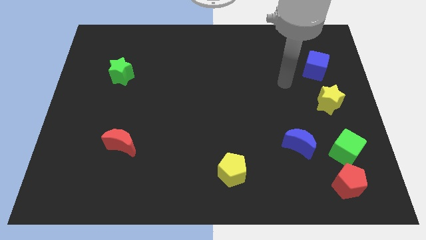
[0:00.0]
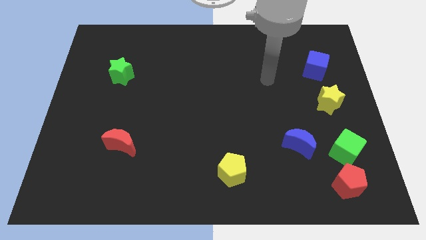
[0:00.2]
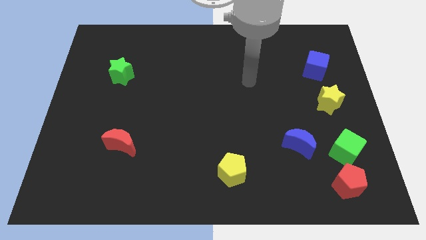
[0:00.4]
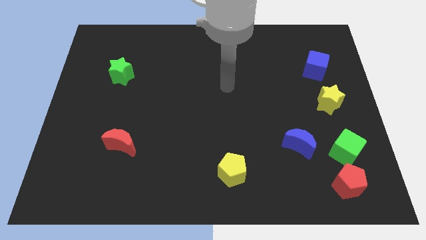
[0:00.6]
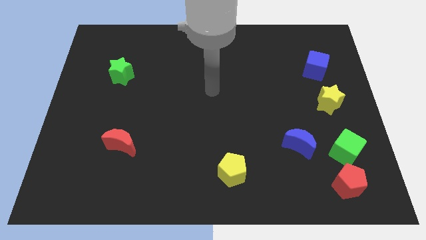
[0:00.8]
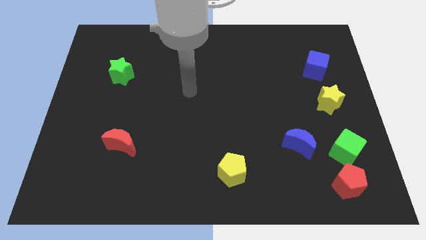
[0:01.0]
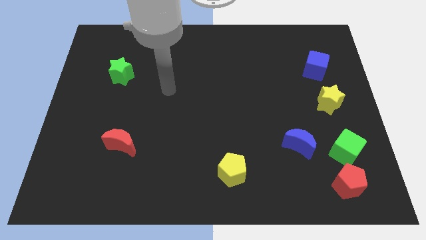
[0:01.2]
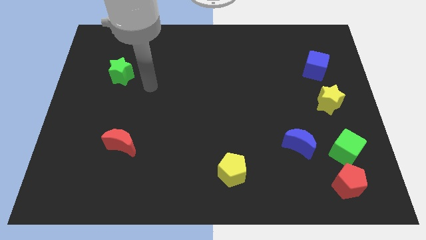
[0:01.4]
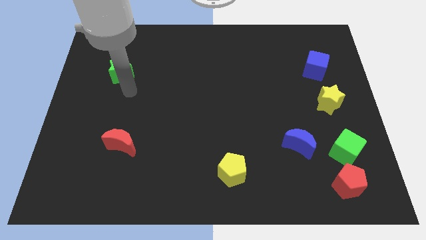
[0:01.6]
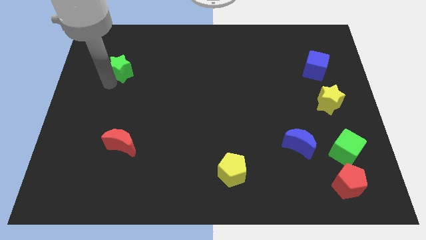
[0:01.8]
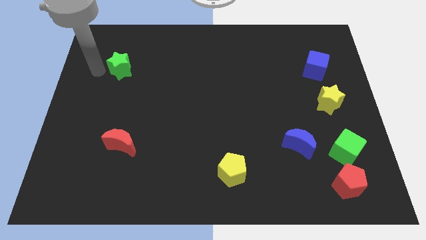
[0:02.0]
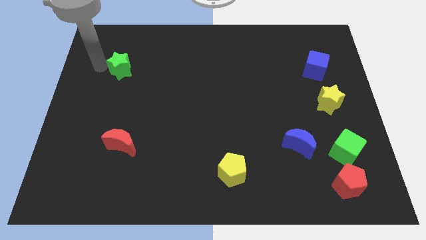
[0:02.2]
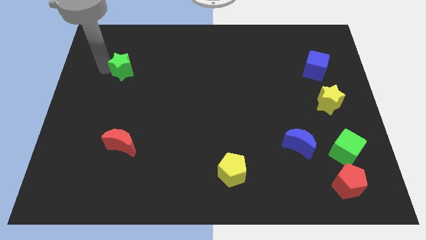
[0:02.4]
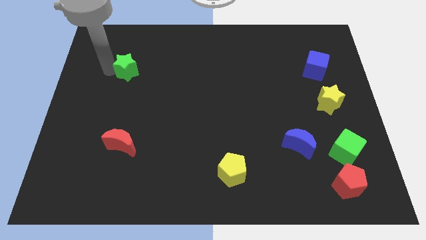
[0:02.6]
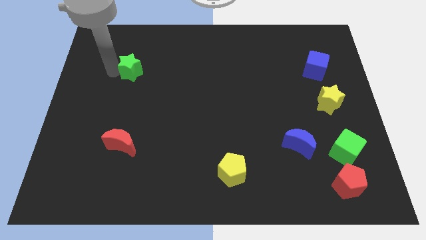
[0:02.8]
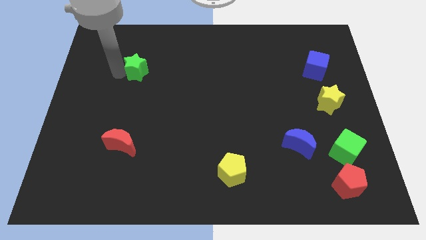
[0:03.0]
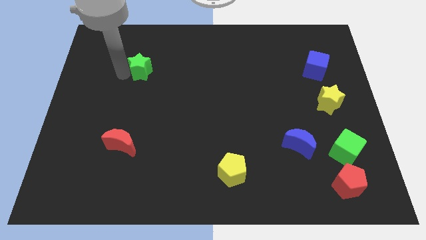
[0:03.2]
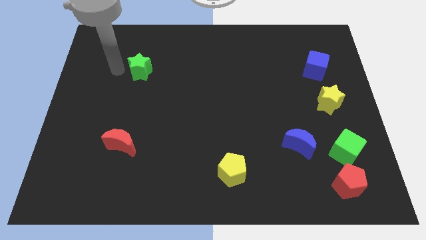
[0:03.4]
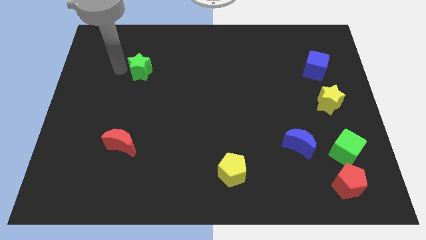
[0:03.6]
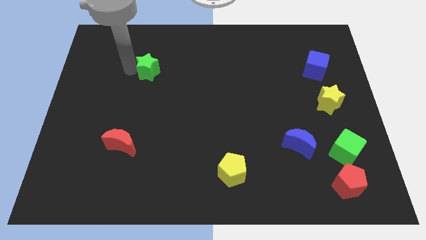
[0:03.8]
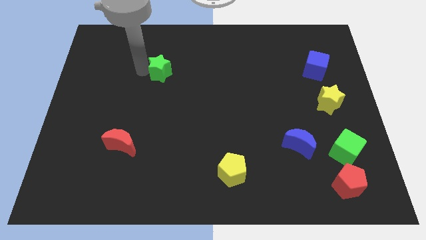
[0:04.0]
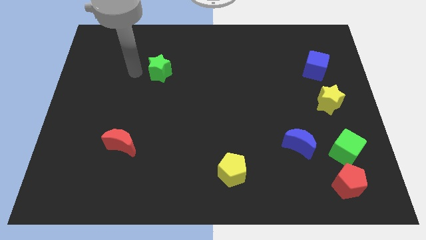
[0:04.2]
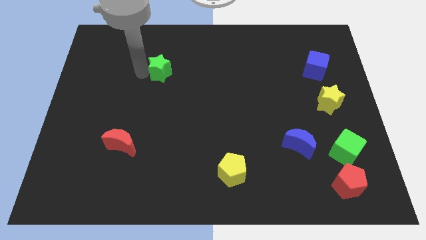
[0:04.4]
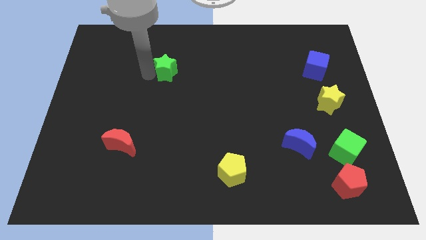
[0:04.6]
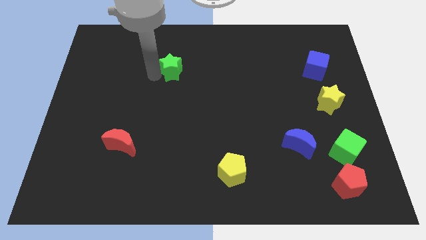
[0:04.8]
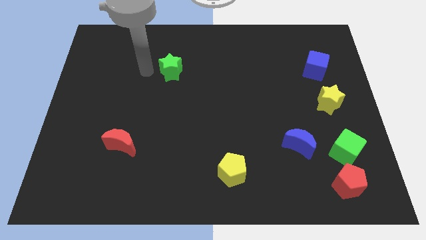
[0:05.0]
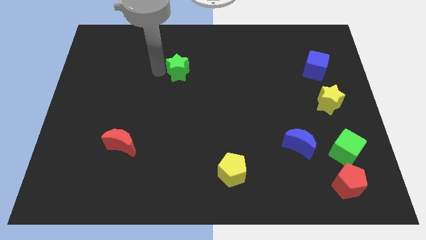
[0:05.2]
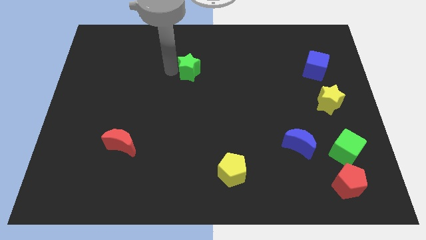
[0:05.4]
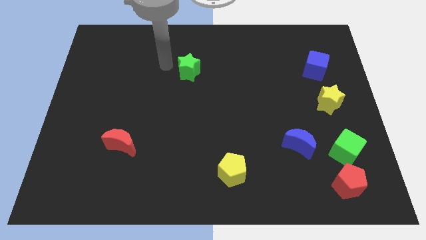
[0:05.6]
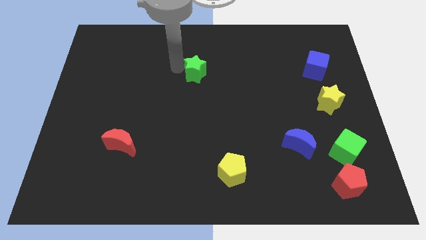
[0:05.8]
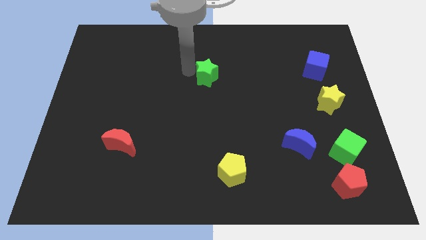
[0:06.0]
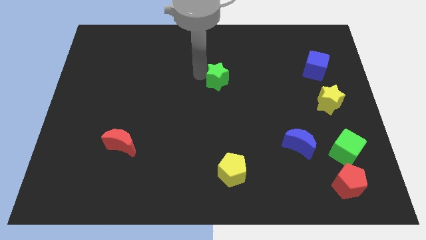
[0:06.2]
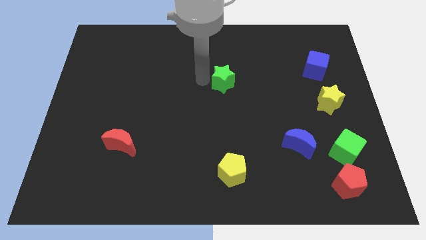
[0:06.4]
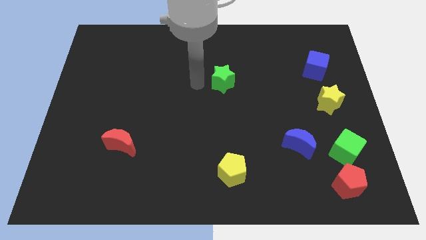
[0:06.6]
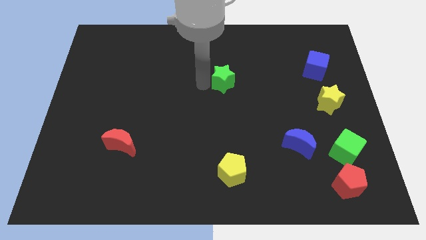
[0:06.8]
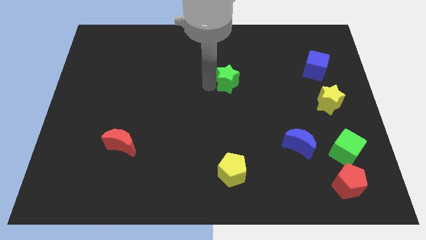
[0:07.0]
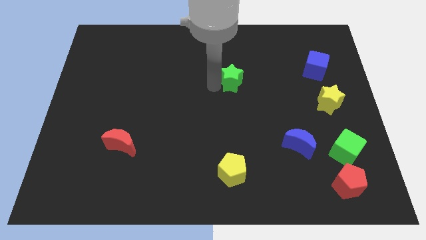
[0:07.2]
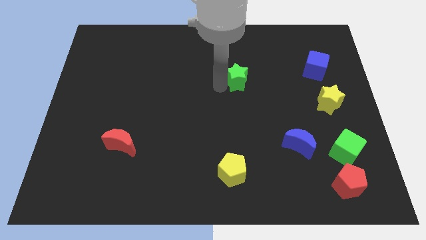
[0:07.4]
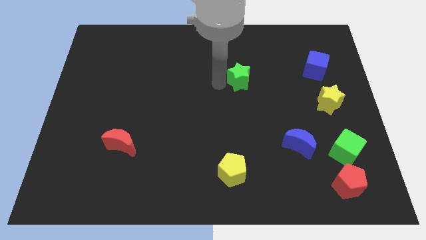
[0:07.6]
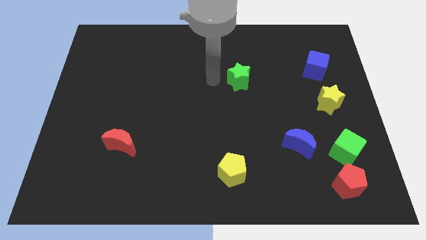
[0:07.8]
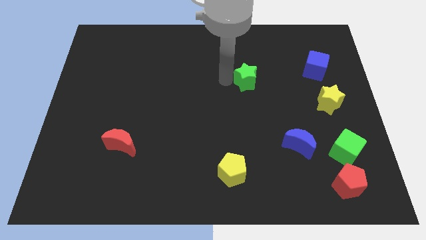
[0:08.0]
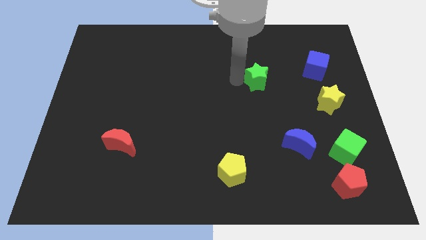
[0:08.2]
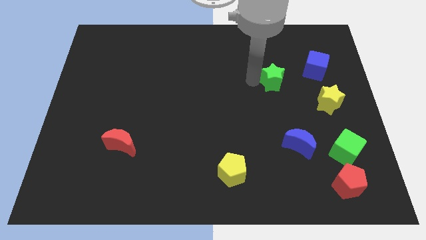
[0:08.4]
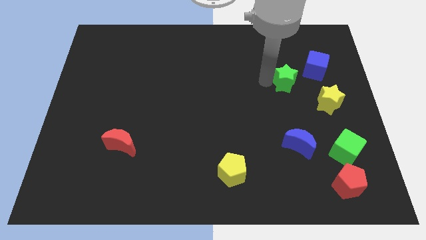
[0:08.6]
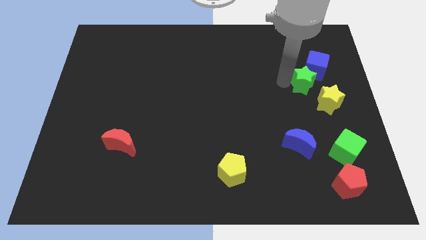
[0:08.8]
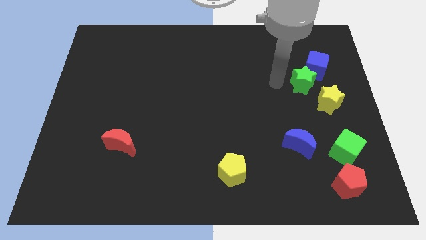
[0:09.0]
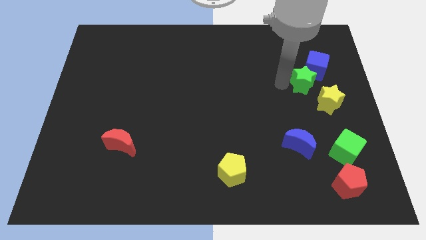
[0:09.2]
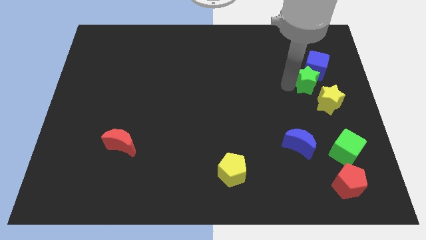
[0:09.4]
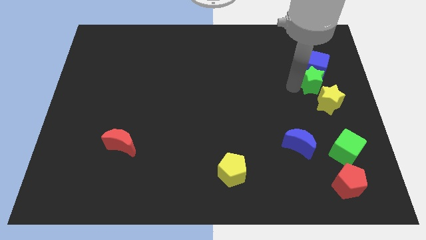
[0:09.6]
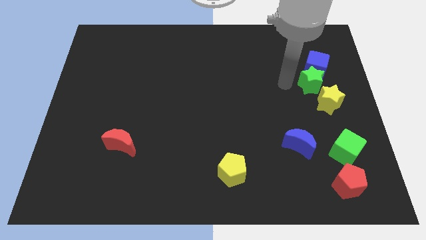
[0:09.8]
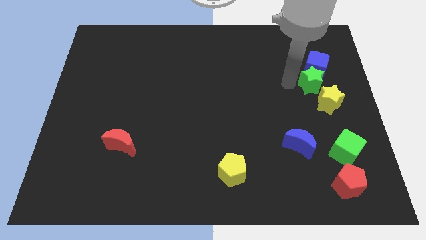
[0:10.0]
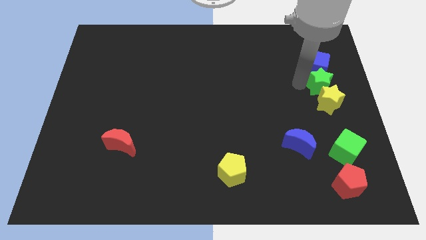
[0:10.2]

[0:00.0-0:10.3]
put the green star to the right side
